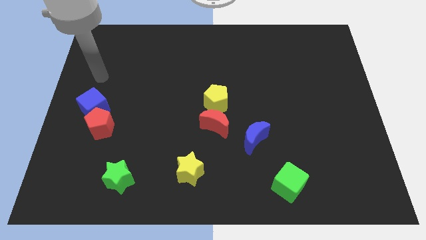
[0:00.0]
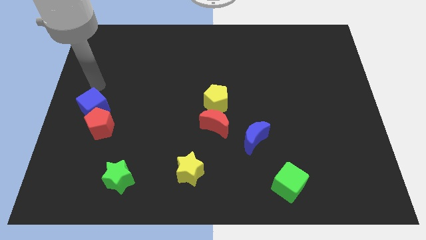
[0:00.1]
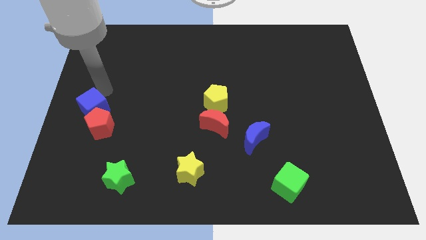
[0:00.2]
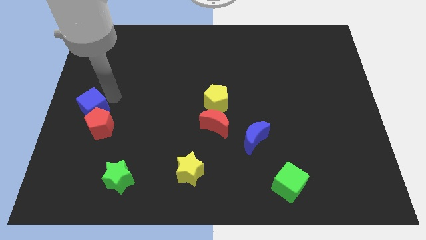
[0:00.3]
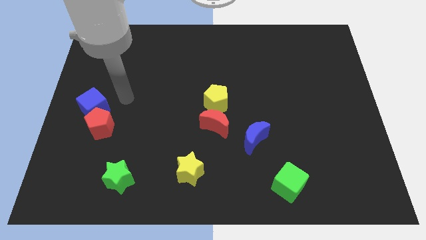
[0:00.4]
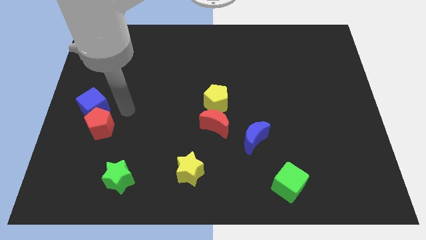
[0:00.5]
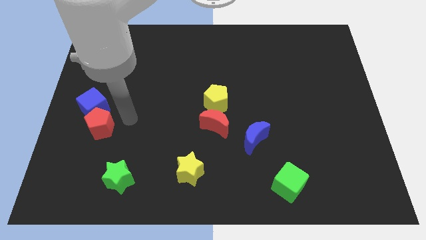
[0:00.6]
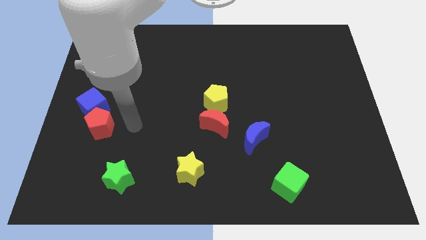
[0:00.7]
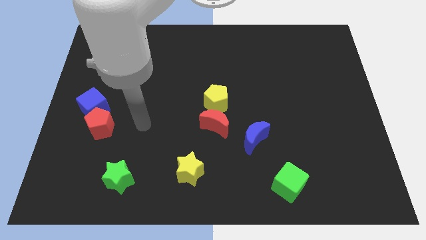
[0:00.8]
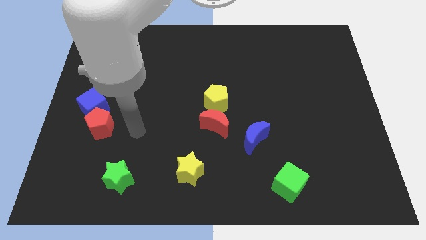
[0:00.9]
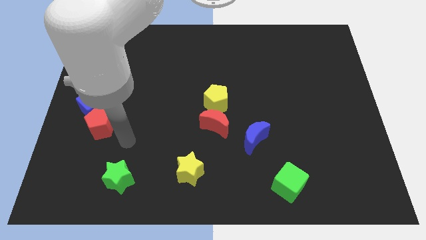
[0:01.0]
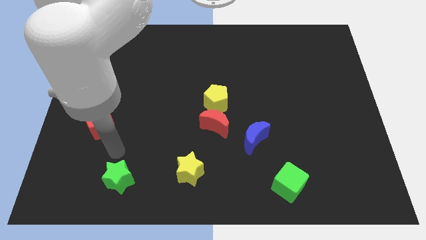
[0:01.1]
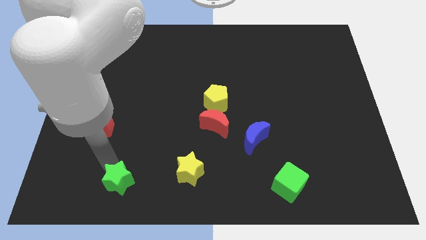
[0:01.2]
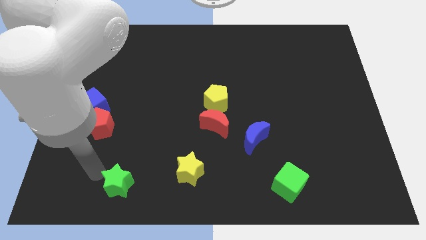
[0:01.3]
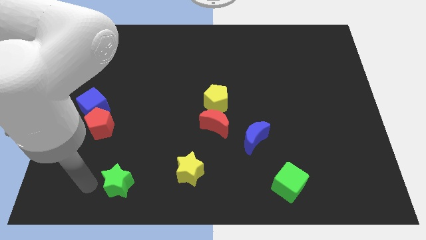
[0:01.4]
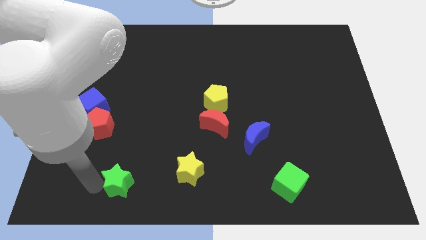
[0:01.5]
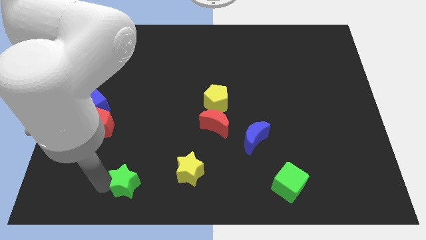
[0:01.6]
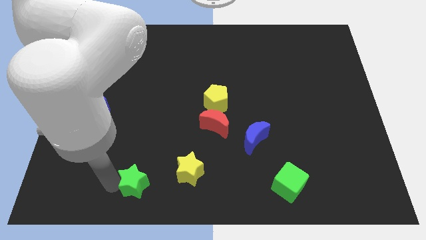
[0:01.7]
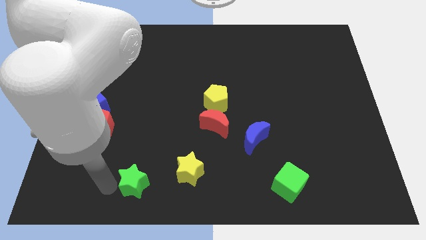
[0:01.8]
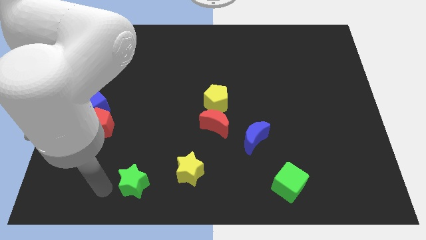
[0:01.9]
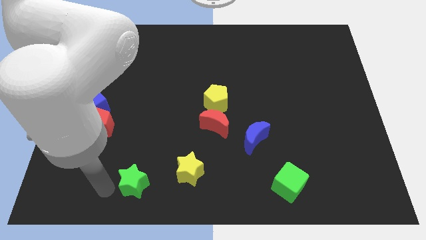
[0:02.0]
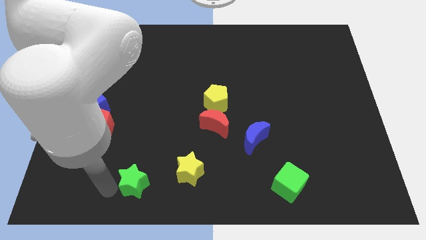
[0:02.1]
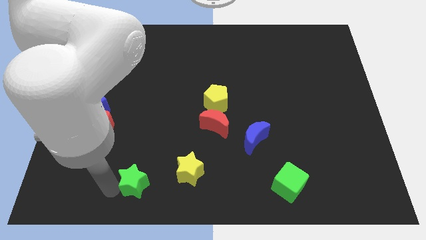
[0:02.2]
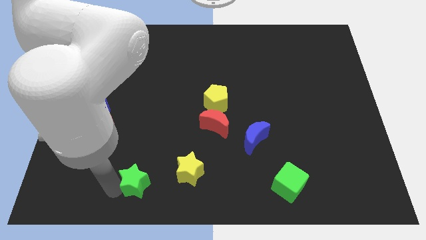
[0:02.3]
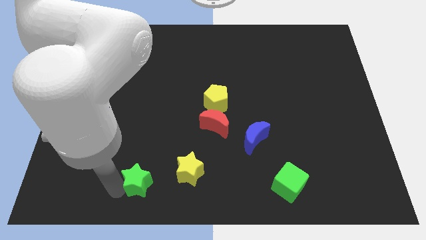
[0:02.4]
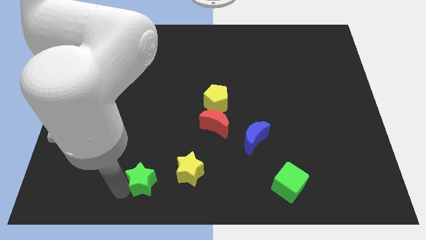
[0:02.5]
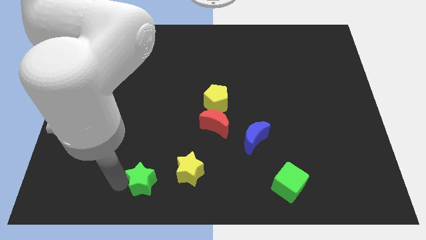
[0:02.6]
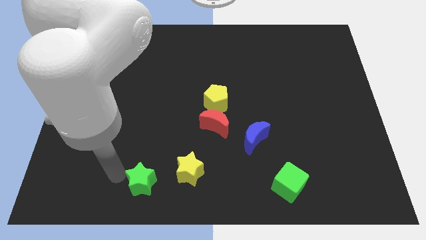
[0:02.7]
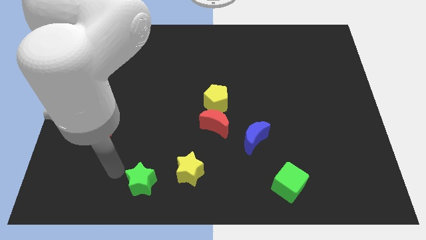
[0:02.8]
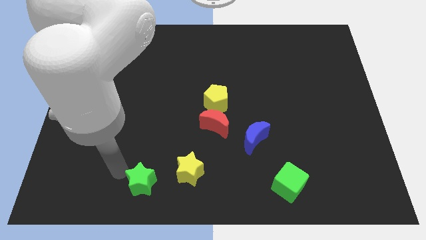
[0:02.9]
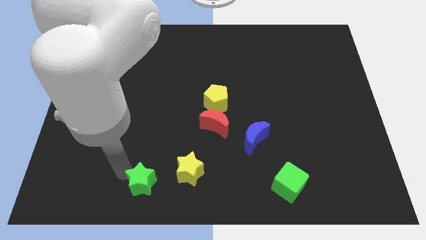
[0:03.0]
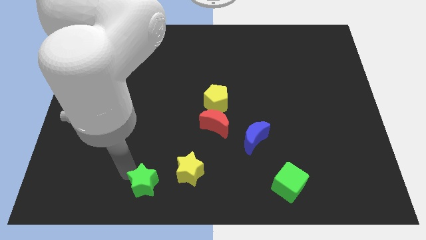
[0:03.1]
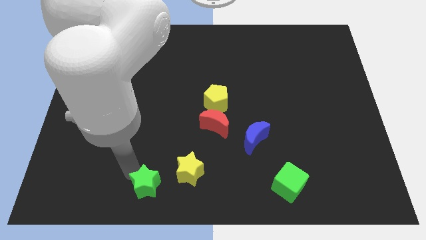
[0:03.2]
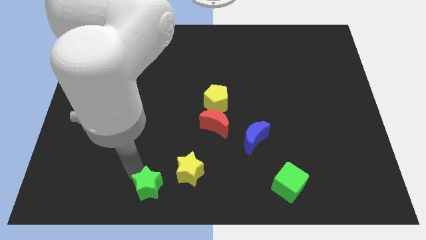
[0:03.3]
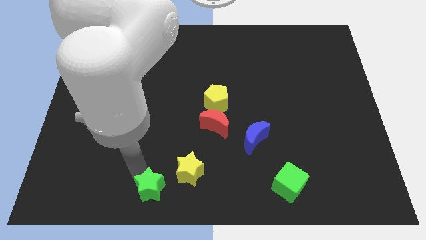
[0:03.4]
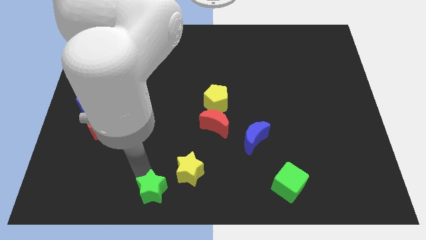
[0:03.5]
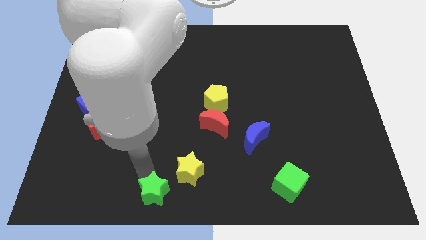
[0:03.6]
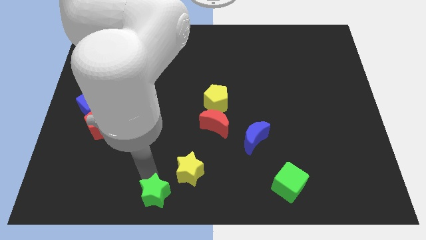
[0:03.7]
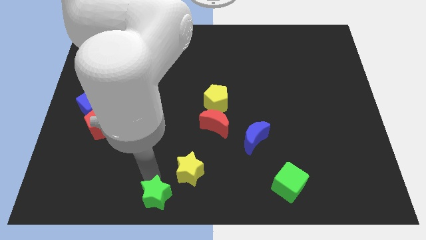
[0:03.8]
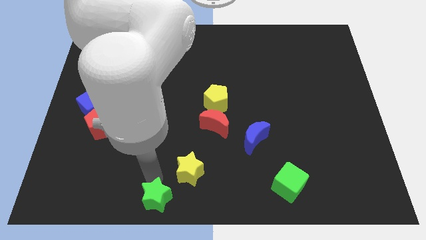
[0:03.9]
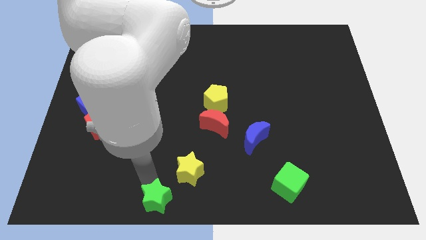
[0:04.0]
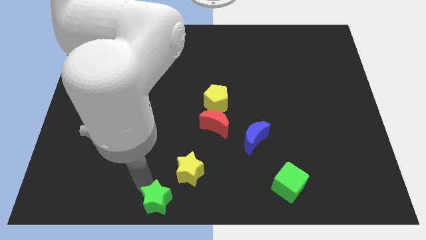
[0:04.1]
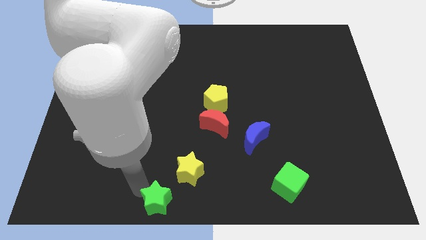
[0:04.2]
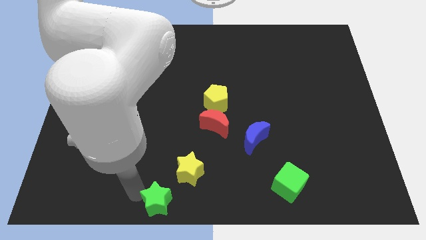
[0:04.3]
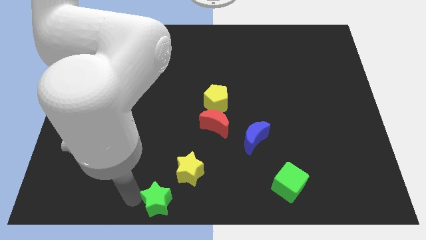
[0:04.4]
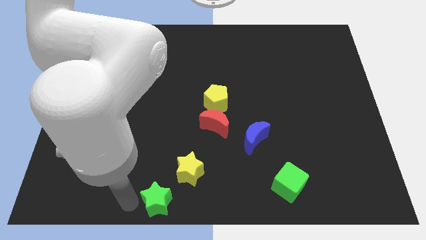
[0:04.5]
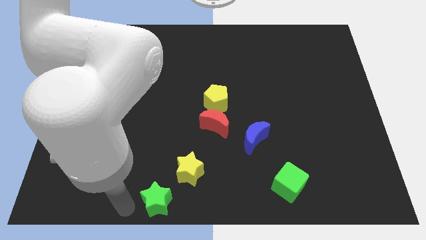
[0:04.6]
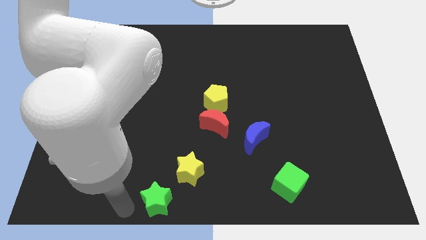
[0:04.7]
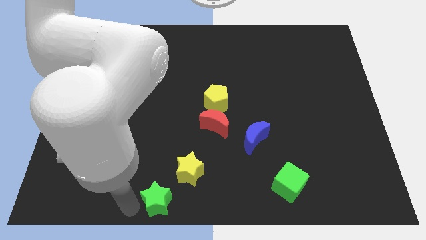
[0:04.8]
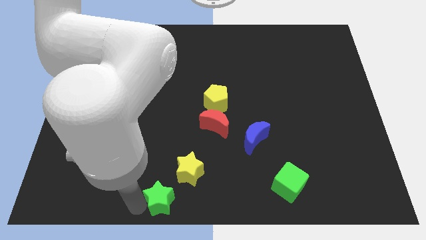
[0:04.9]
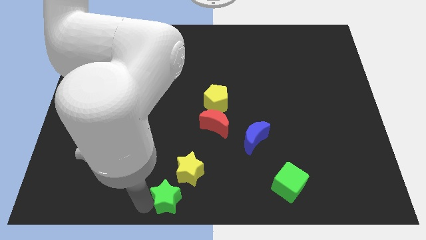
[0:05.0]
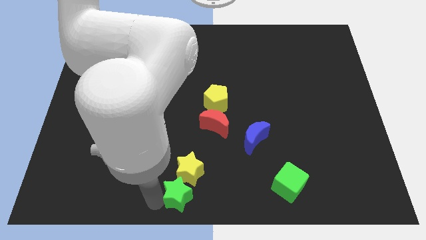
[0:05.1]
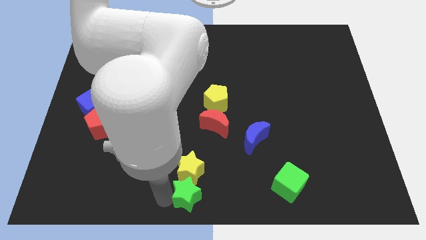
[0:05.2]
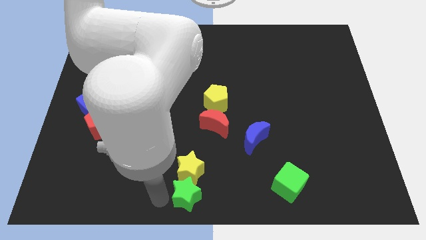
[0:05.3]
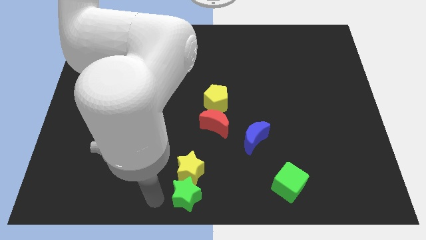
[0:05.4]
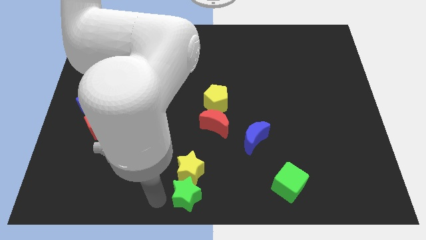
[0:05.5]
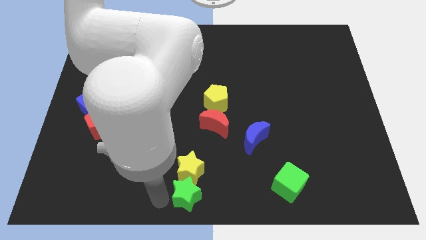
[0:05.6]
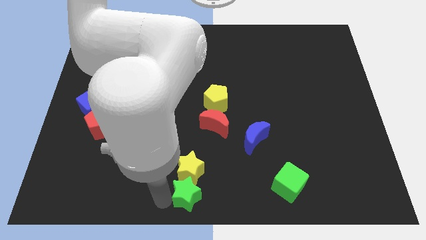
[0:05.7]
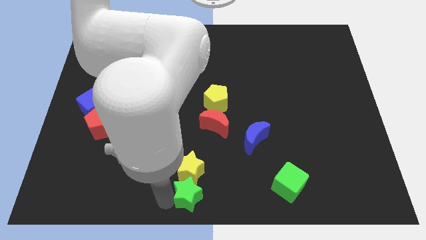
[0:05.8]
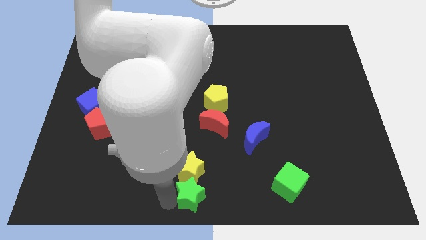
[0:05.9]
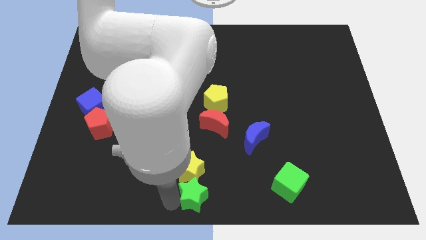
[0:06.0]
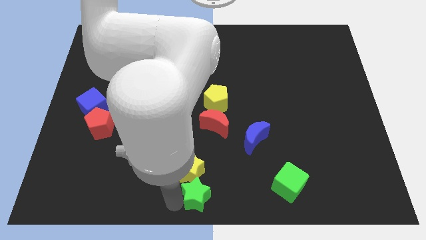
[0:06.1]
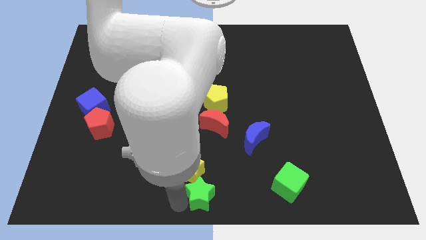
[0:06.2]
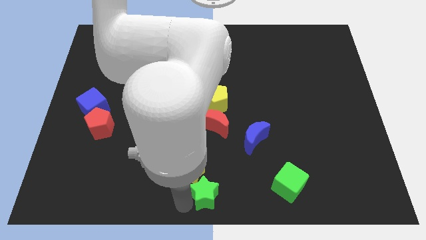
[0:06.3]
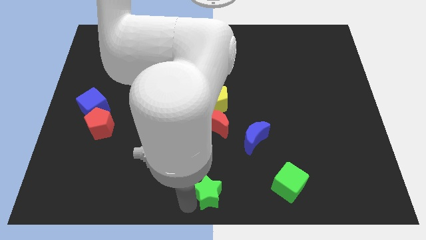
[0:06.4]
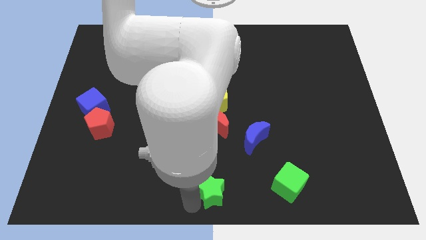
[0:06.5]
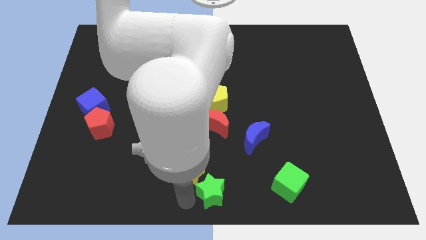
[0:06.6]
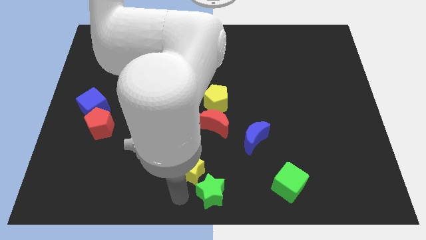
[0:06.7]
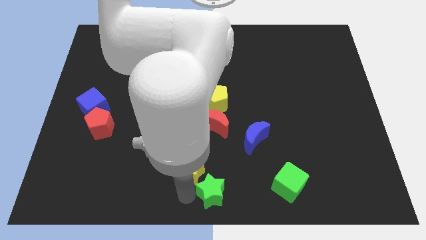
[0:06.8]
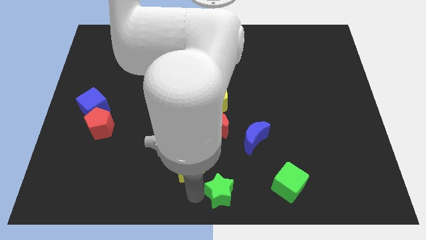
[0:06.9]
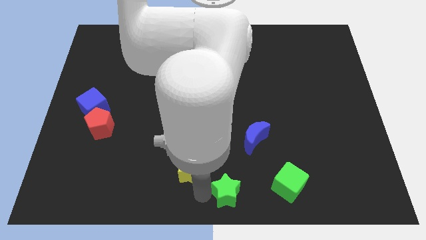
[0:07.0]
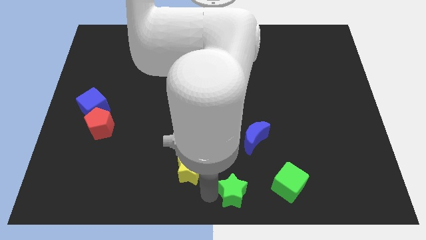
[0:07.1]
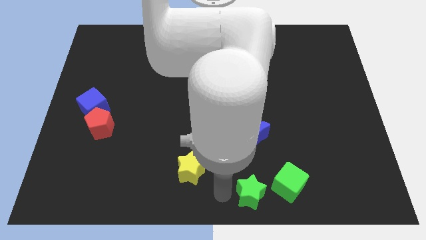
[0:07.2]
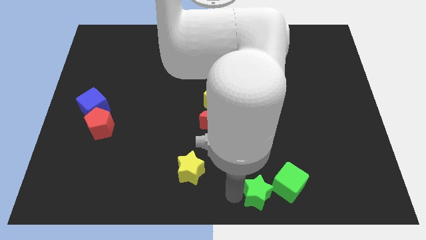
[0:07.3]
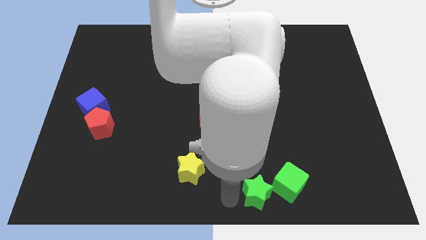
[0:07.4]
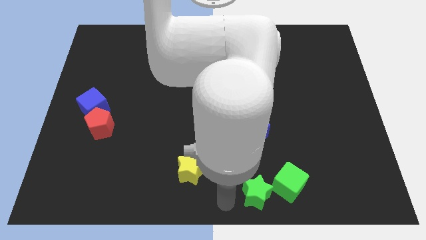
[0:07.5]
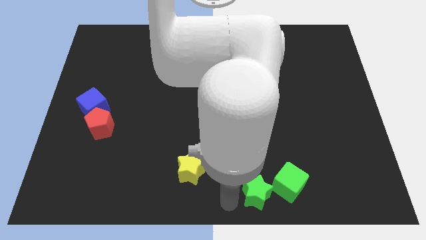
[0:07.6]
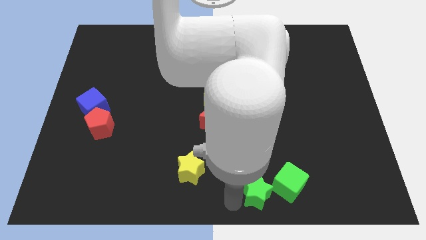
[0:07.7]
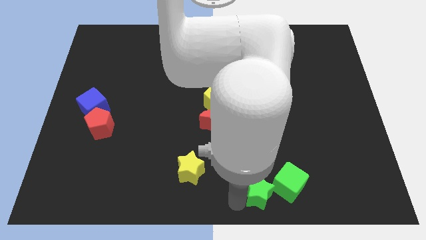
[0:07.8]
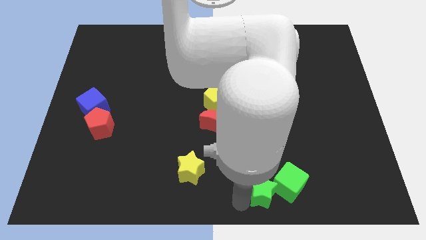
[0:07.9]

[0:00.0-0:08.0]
move the green star to the green cube
